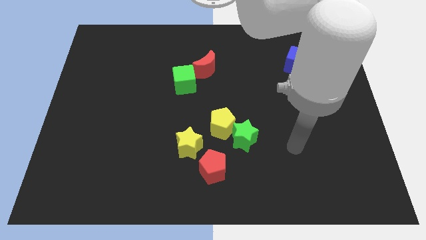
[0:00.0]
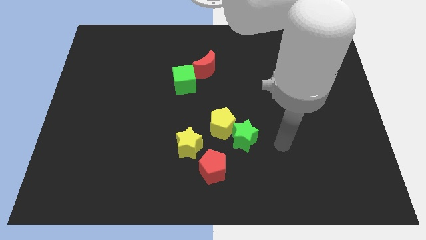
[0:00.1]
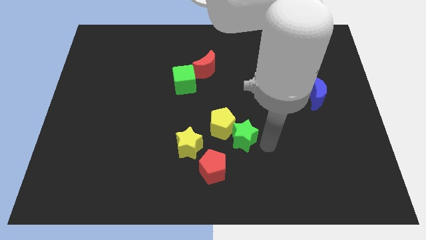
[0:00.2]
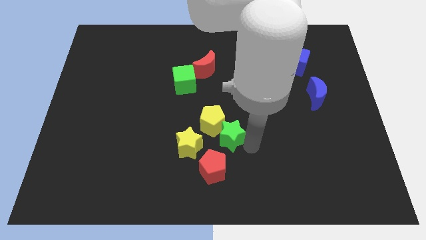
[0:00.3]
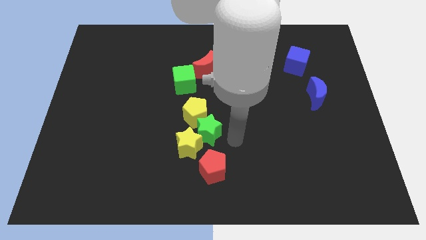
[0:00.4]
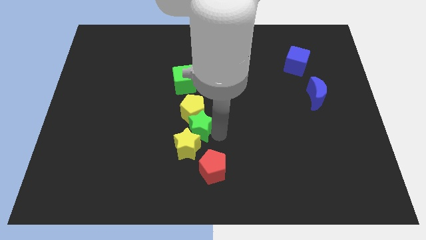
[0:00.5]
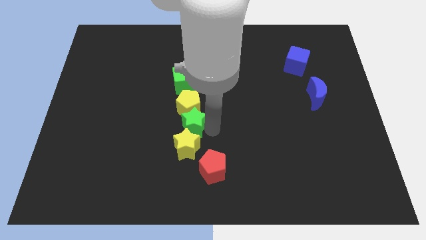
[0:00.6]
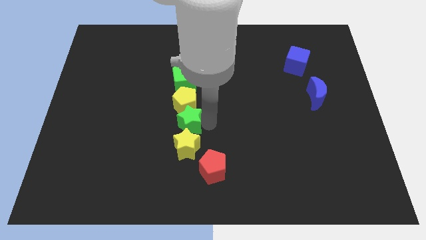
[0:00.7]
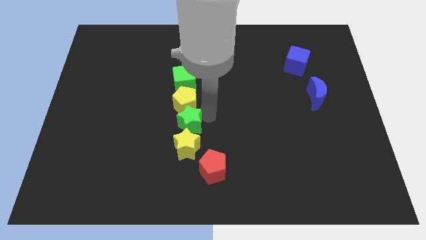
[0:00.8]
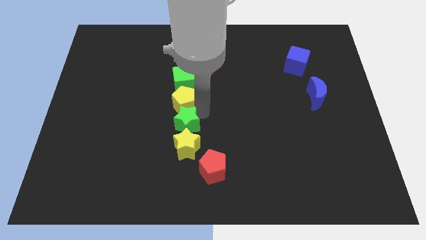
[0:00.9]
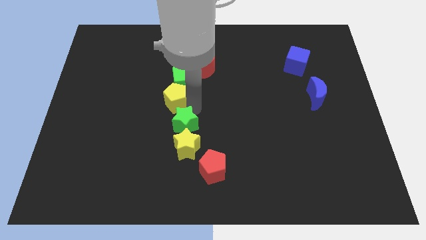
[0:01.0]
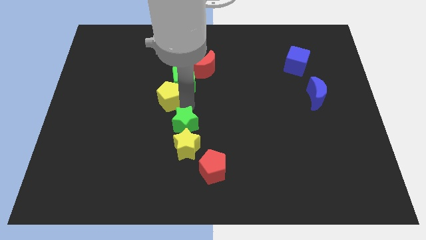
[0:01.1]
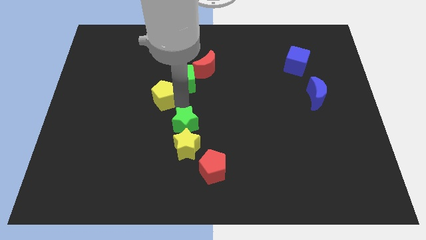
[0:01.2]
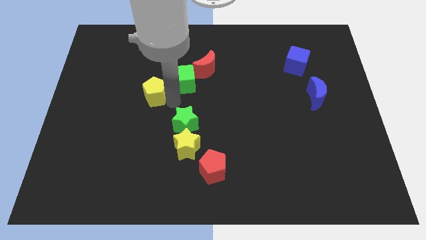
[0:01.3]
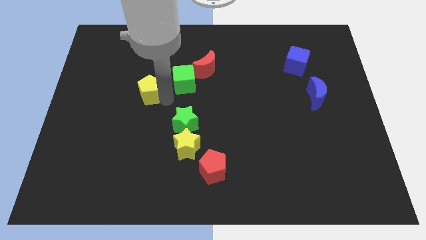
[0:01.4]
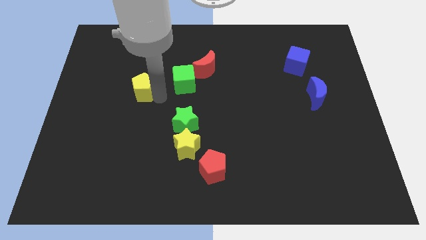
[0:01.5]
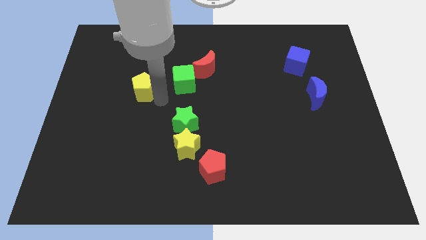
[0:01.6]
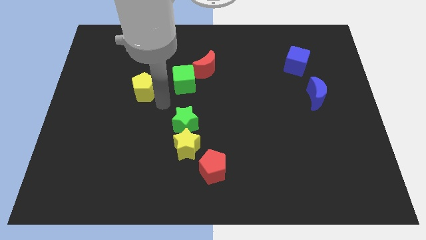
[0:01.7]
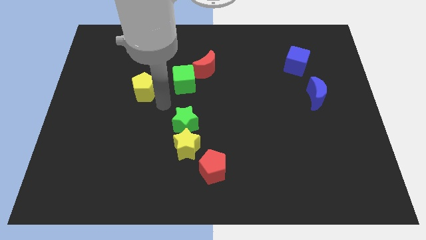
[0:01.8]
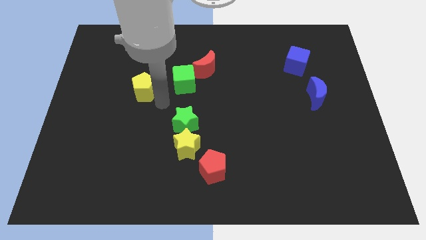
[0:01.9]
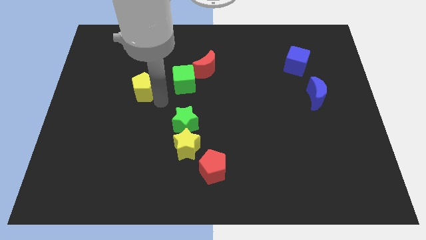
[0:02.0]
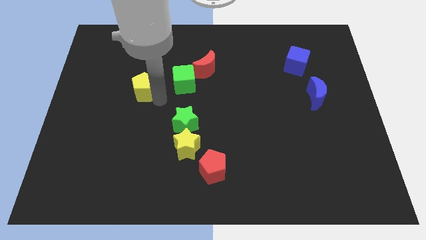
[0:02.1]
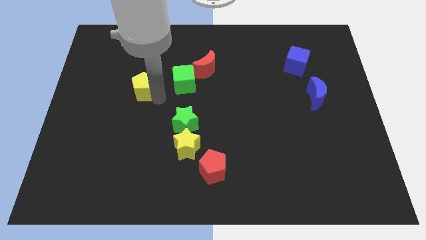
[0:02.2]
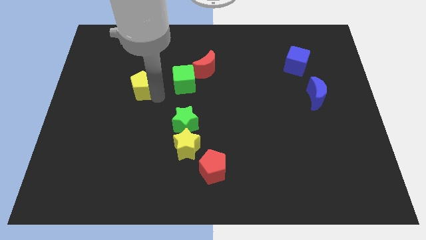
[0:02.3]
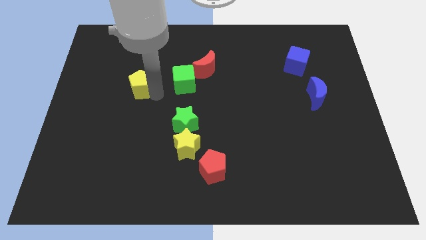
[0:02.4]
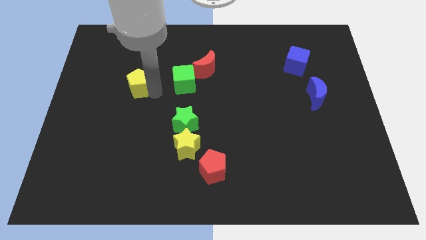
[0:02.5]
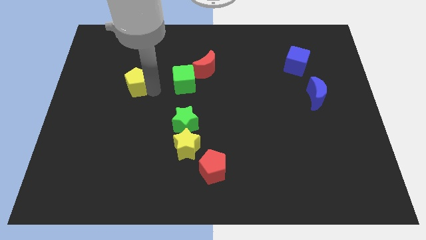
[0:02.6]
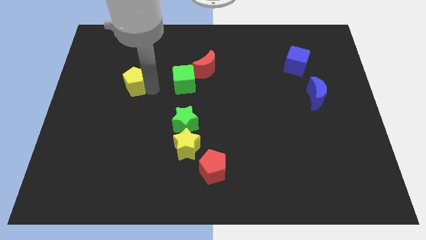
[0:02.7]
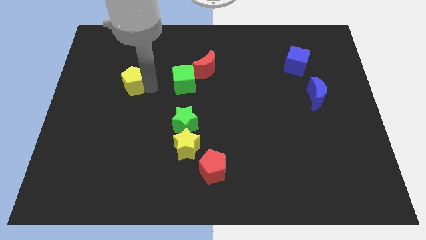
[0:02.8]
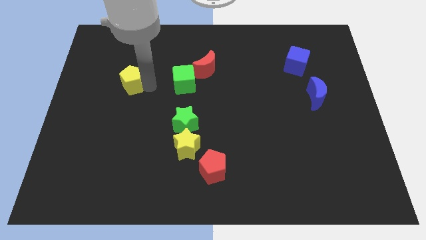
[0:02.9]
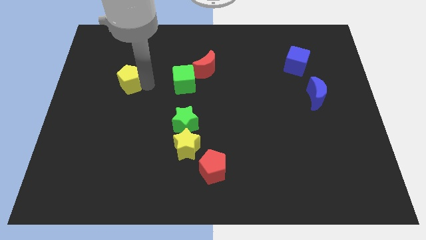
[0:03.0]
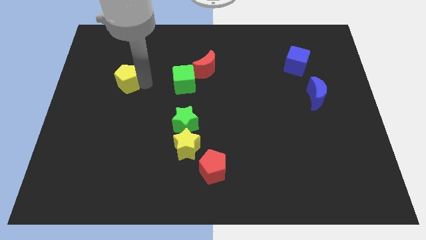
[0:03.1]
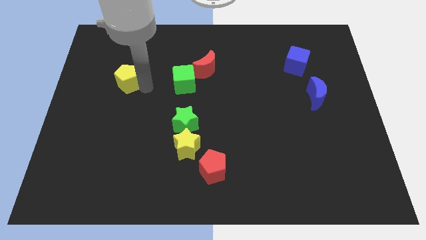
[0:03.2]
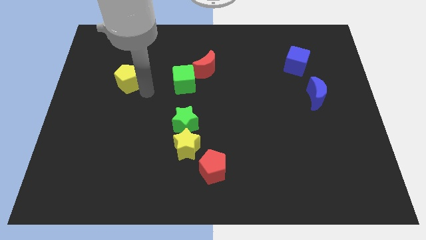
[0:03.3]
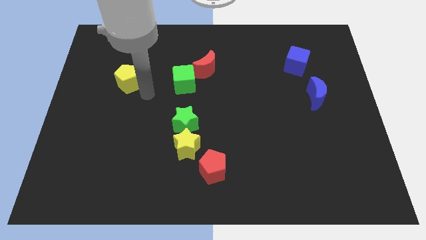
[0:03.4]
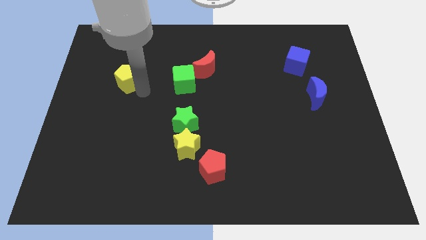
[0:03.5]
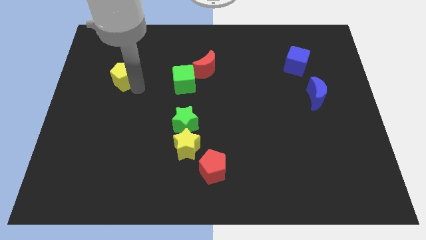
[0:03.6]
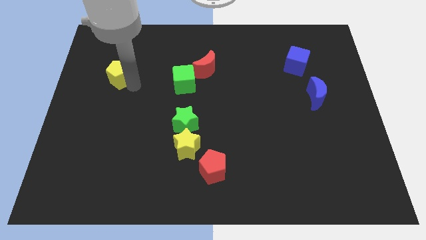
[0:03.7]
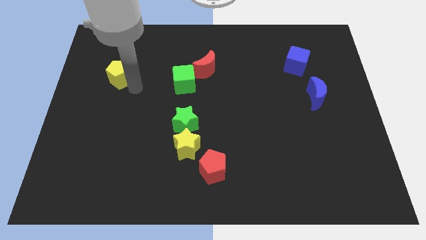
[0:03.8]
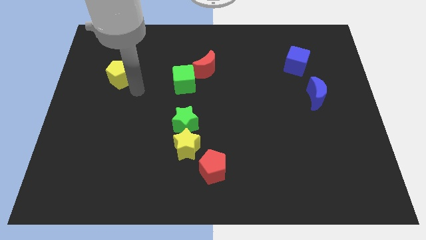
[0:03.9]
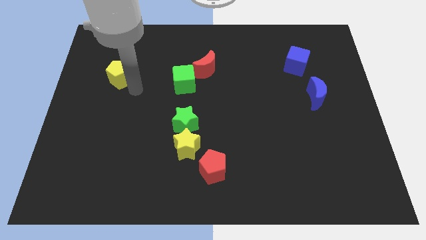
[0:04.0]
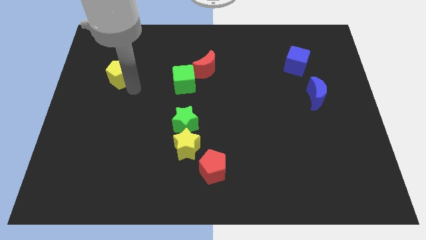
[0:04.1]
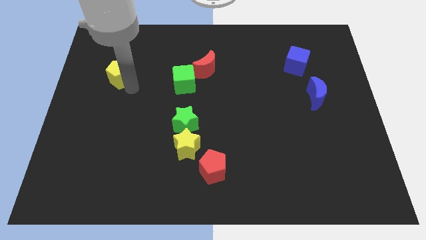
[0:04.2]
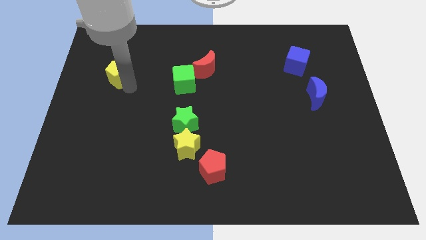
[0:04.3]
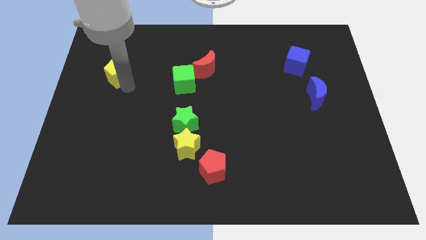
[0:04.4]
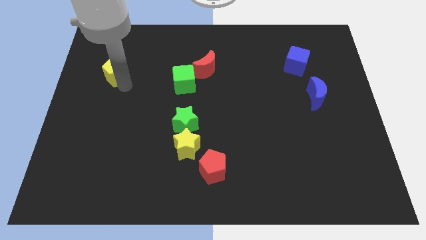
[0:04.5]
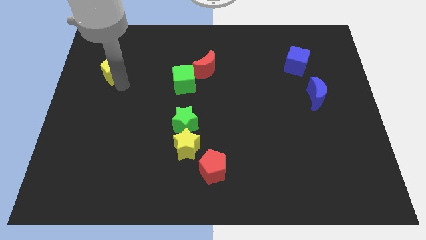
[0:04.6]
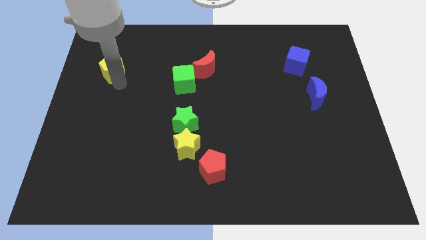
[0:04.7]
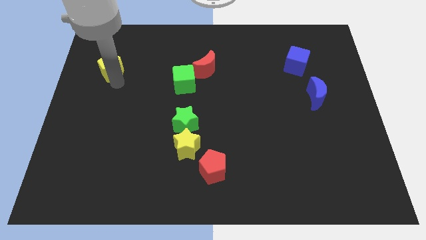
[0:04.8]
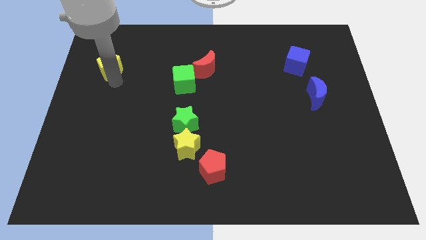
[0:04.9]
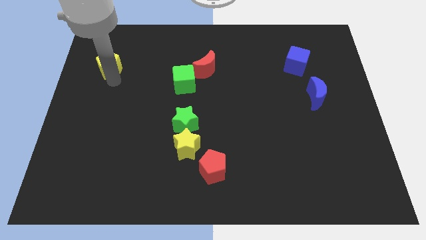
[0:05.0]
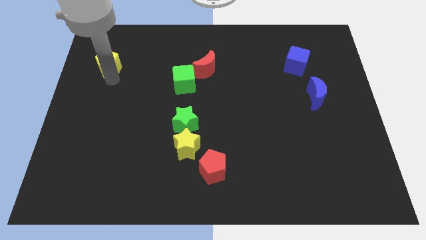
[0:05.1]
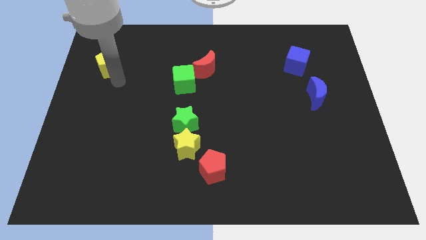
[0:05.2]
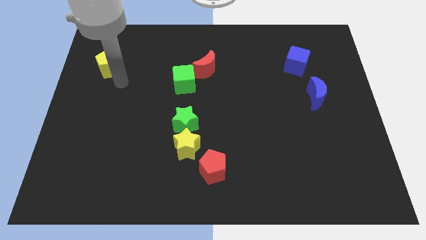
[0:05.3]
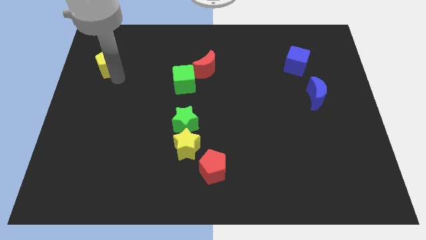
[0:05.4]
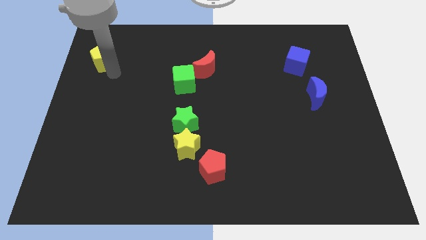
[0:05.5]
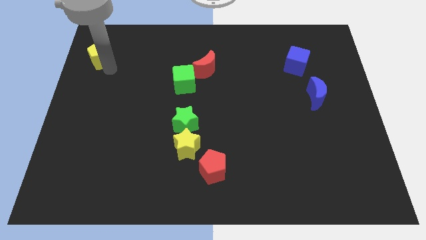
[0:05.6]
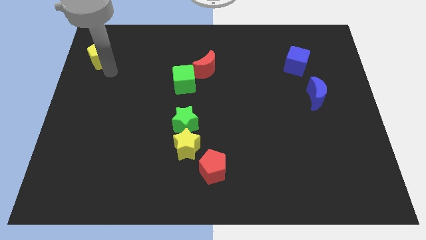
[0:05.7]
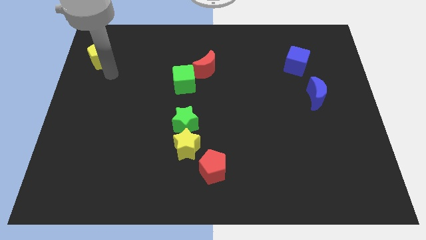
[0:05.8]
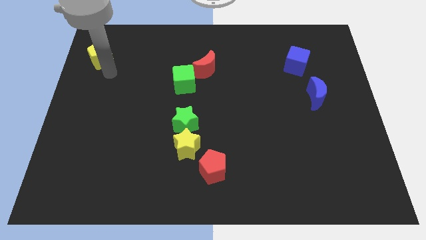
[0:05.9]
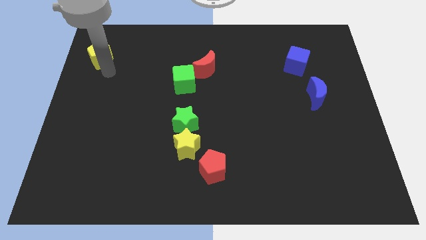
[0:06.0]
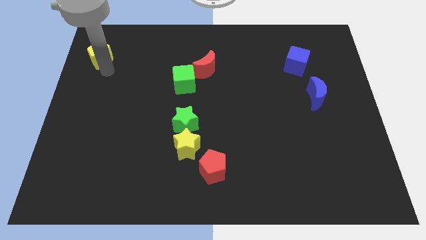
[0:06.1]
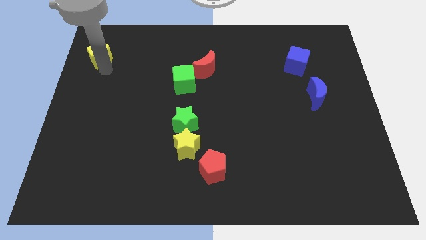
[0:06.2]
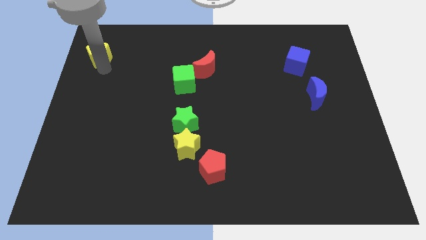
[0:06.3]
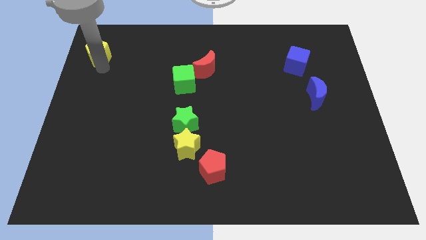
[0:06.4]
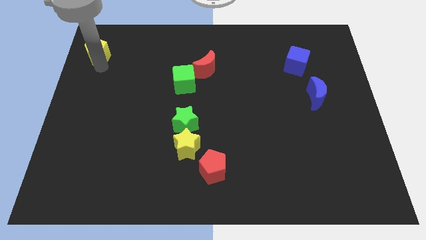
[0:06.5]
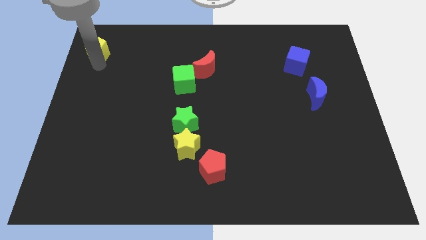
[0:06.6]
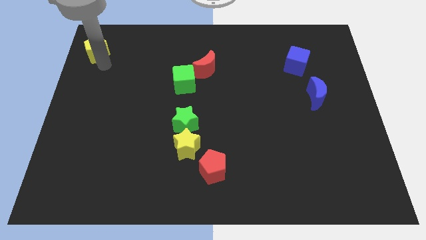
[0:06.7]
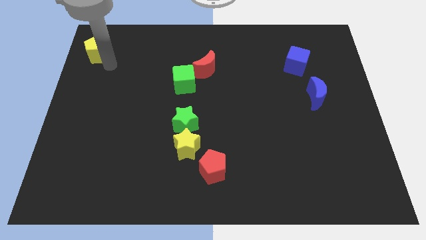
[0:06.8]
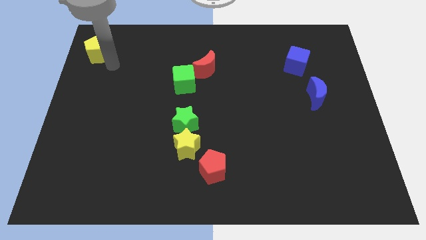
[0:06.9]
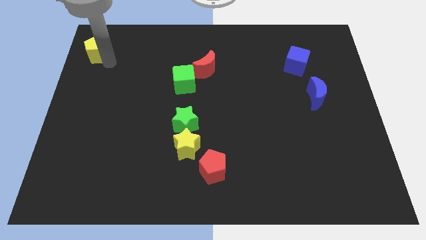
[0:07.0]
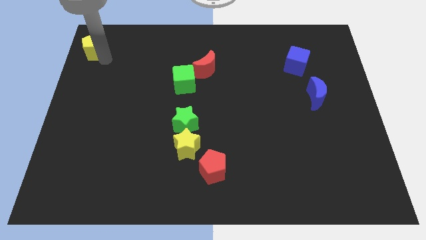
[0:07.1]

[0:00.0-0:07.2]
put the yellow pentagon to the top left

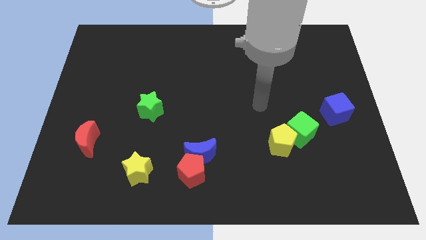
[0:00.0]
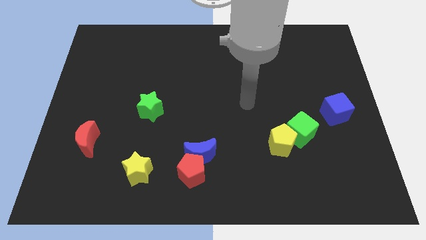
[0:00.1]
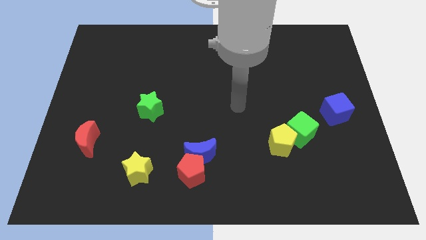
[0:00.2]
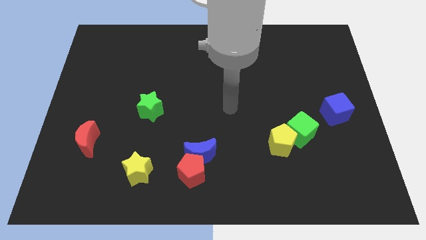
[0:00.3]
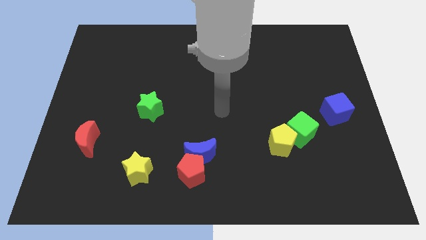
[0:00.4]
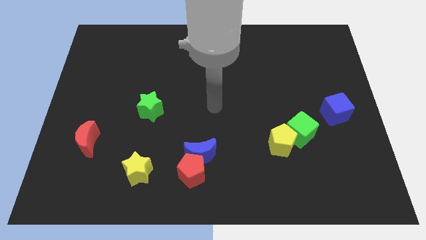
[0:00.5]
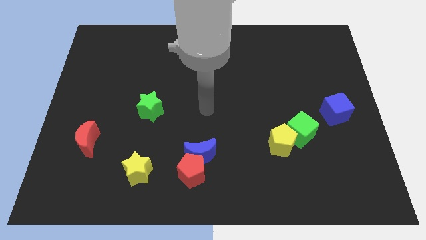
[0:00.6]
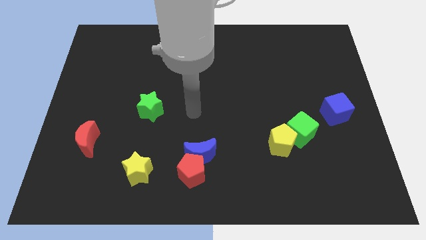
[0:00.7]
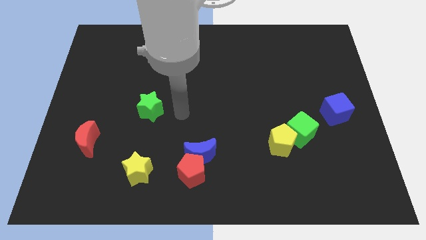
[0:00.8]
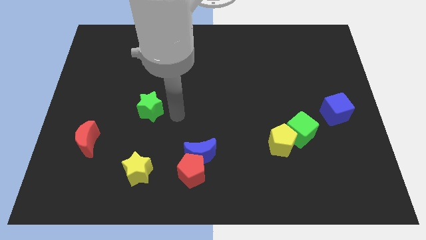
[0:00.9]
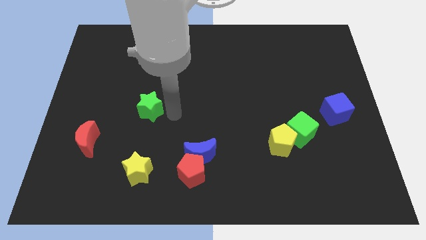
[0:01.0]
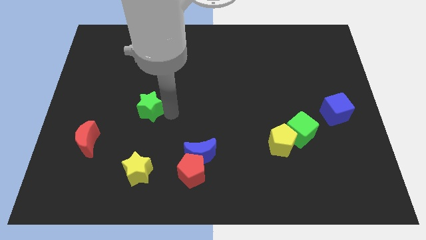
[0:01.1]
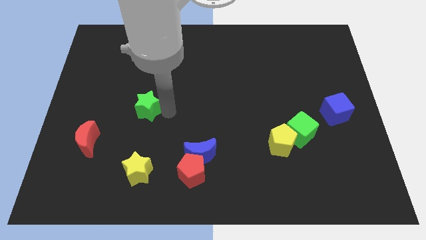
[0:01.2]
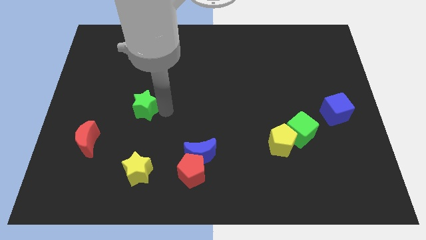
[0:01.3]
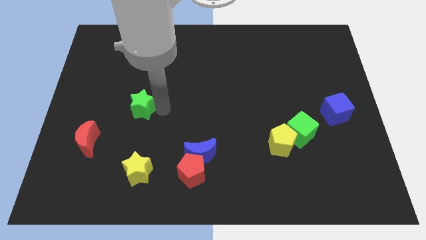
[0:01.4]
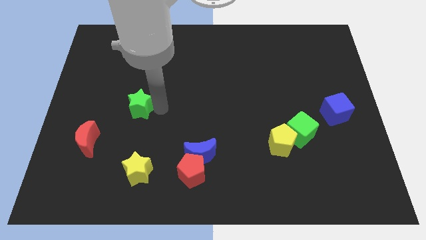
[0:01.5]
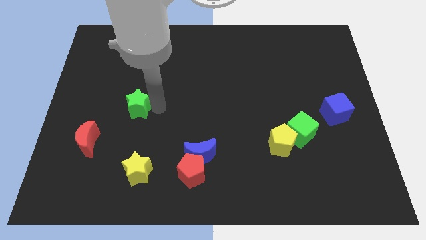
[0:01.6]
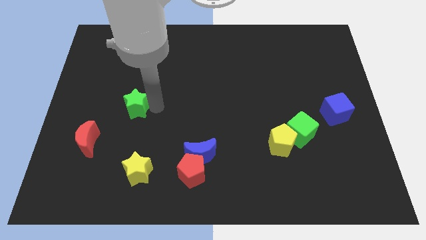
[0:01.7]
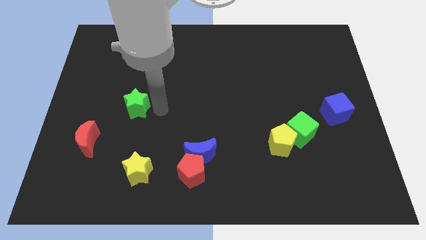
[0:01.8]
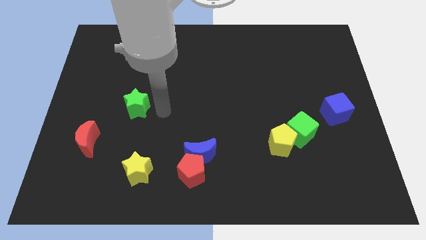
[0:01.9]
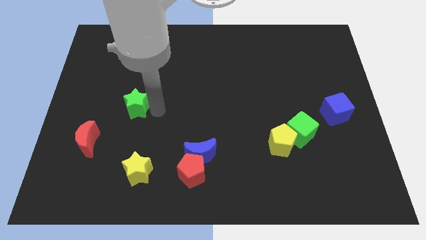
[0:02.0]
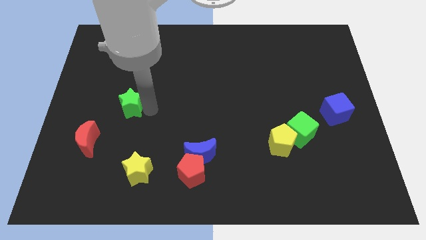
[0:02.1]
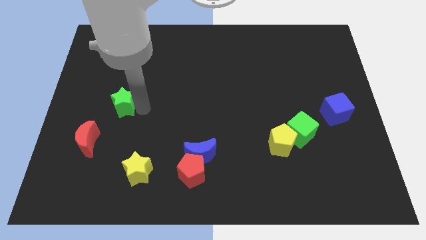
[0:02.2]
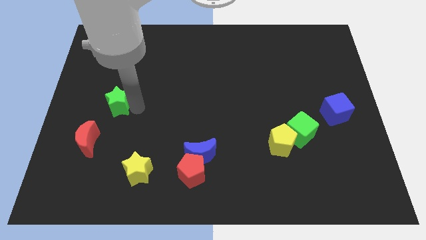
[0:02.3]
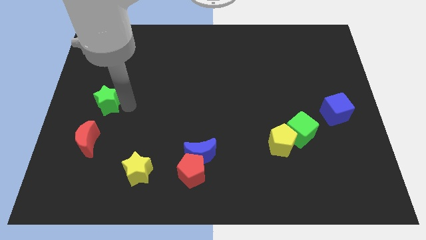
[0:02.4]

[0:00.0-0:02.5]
push the green star to the left side
